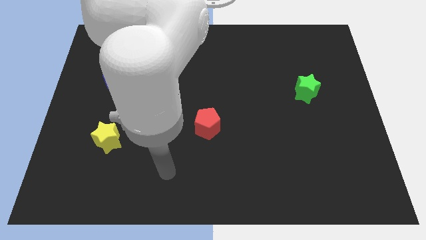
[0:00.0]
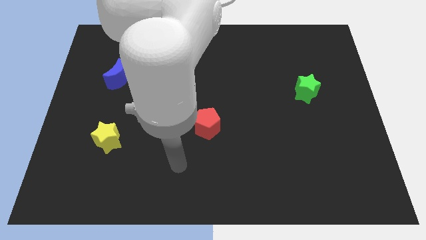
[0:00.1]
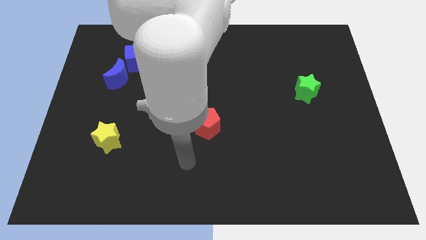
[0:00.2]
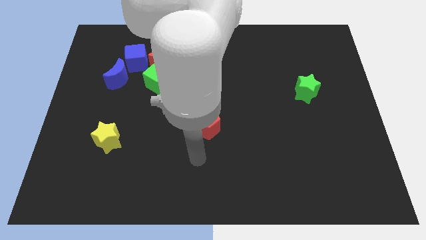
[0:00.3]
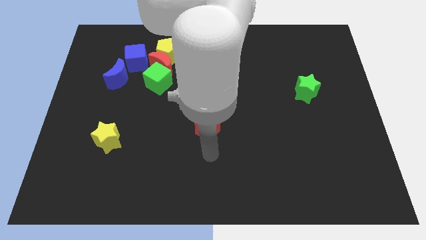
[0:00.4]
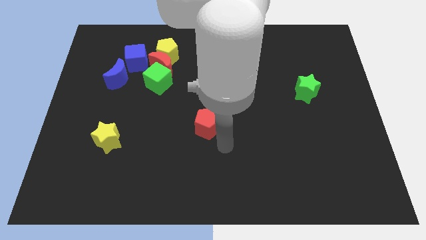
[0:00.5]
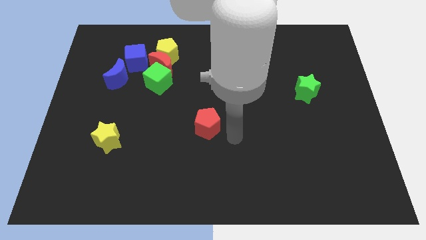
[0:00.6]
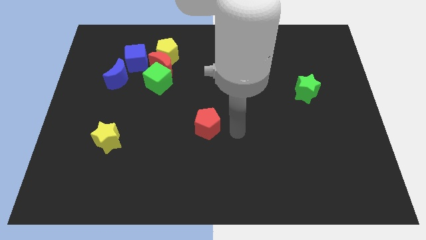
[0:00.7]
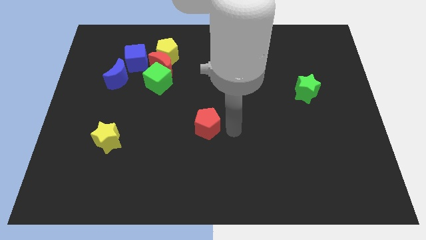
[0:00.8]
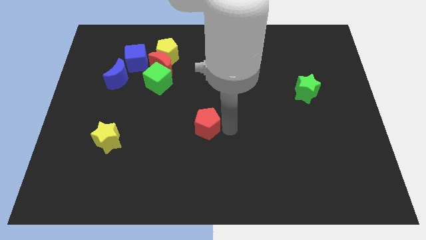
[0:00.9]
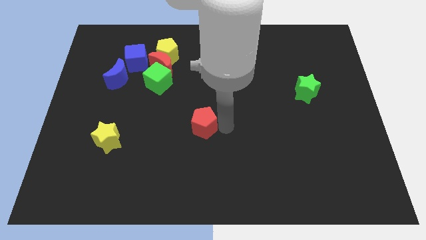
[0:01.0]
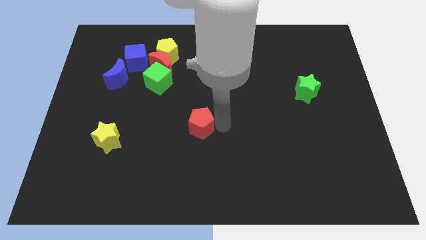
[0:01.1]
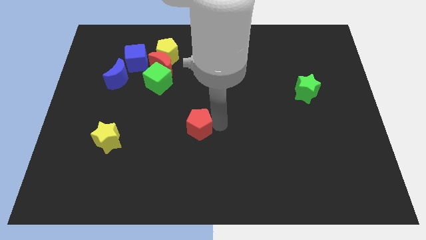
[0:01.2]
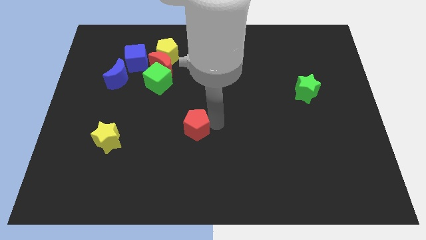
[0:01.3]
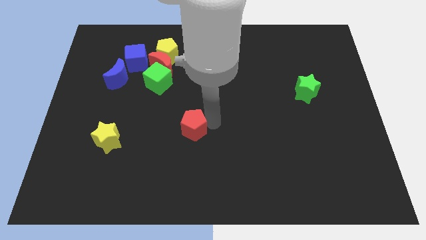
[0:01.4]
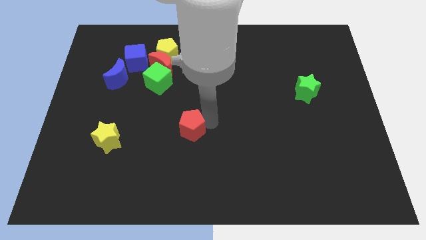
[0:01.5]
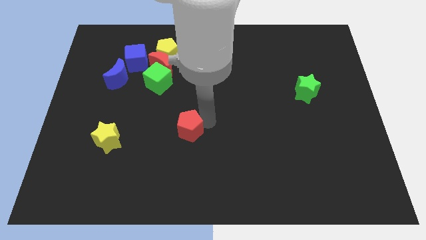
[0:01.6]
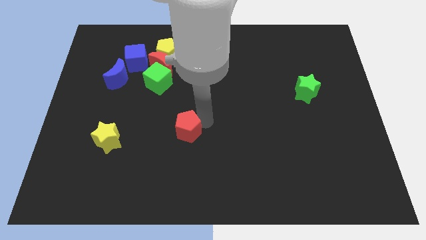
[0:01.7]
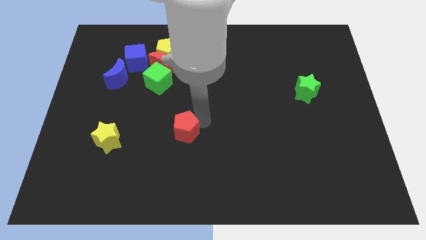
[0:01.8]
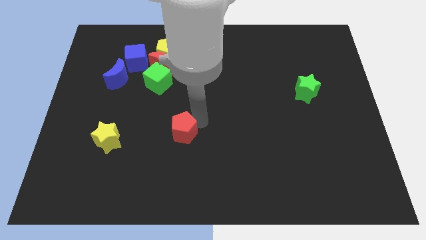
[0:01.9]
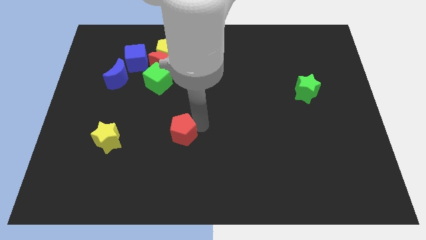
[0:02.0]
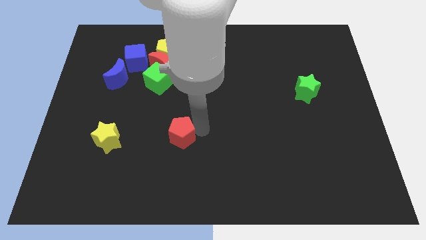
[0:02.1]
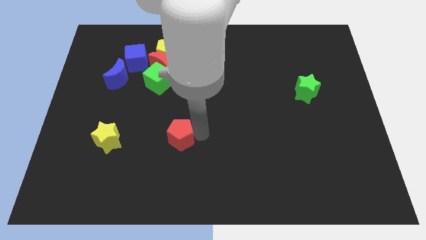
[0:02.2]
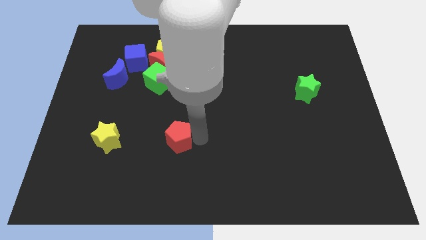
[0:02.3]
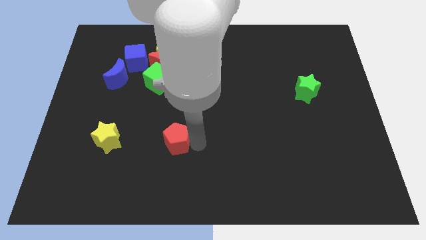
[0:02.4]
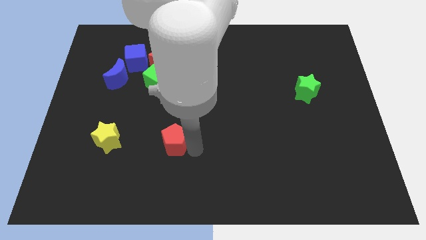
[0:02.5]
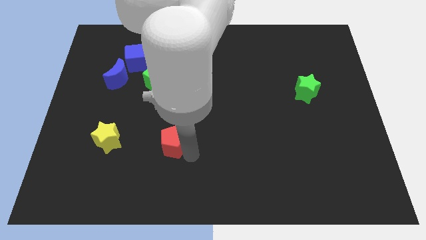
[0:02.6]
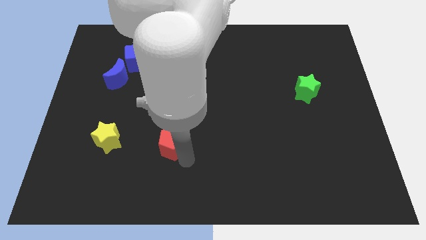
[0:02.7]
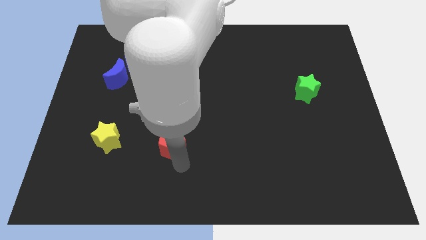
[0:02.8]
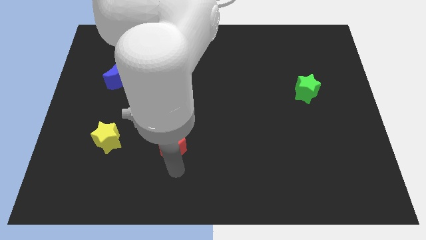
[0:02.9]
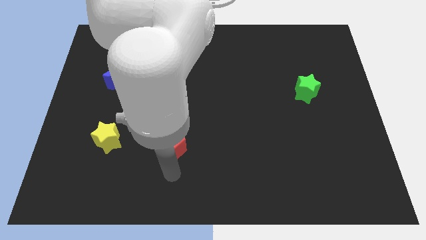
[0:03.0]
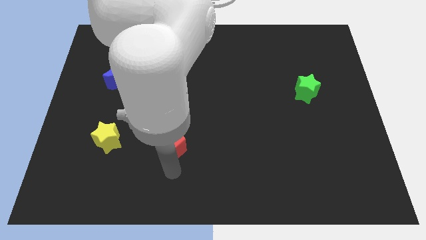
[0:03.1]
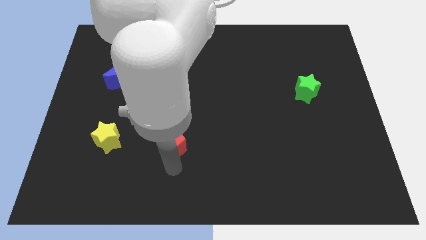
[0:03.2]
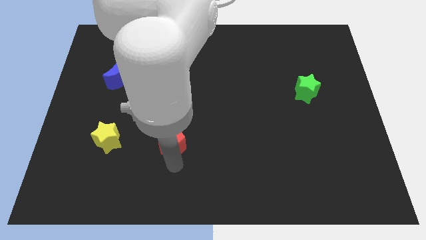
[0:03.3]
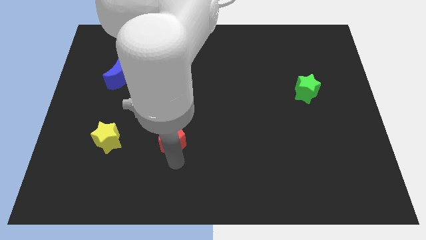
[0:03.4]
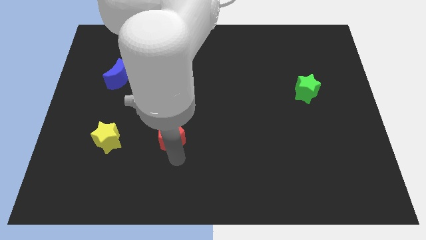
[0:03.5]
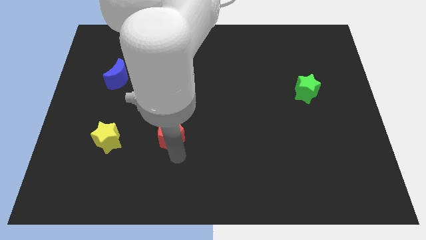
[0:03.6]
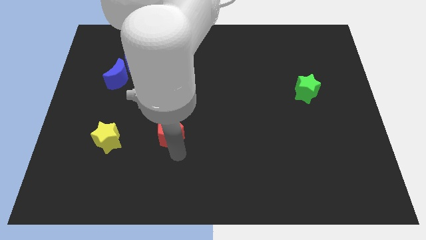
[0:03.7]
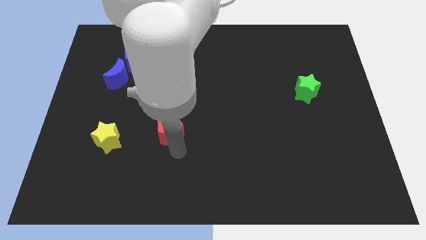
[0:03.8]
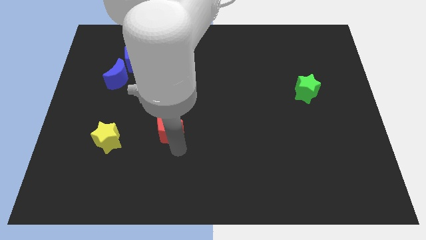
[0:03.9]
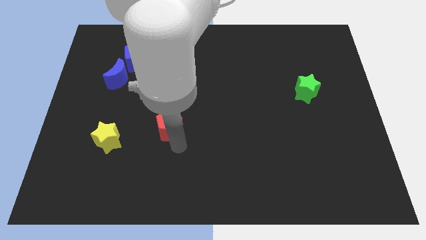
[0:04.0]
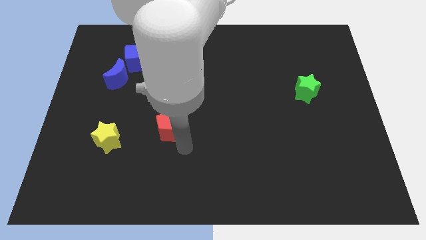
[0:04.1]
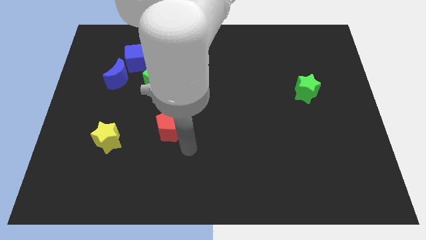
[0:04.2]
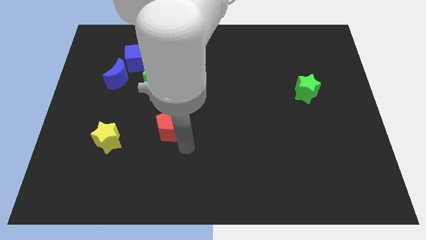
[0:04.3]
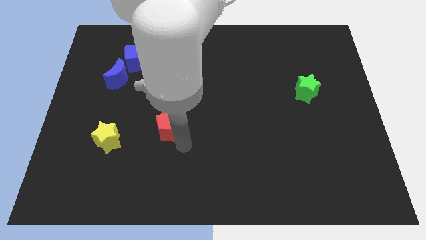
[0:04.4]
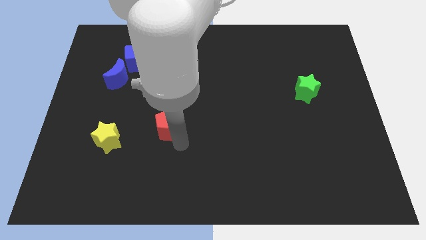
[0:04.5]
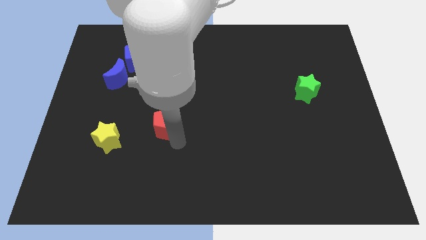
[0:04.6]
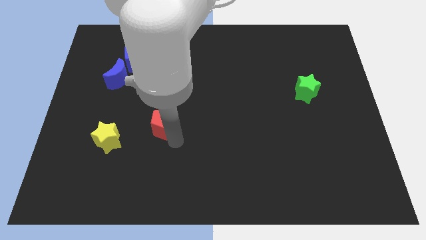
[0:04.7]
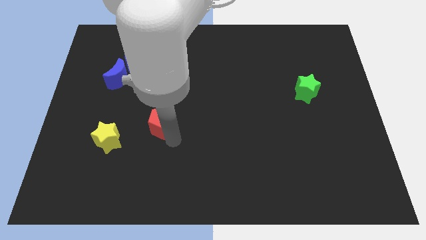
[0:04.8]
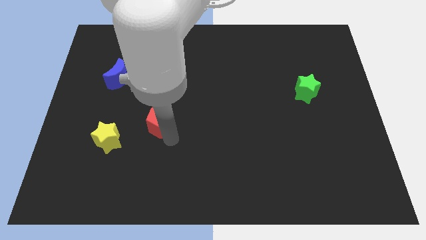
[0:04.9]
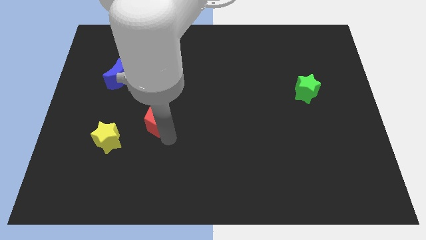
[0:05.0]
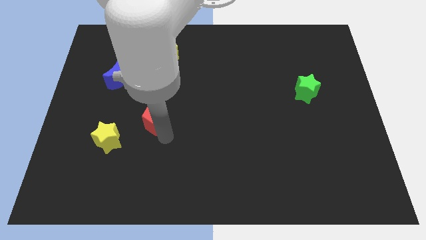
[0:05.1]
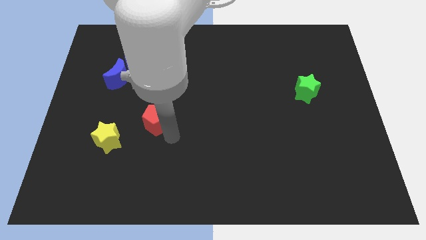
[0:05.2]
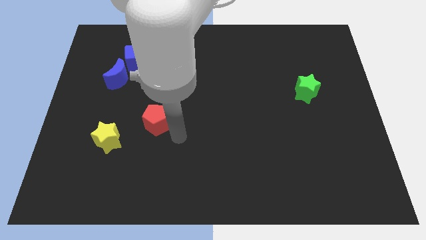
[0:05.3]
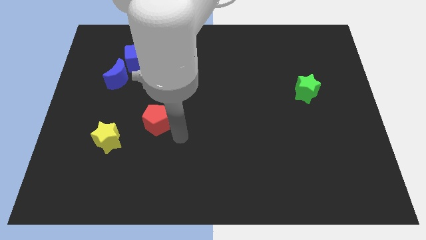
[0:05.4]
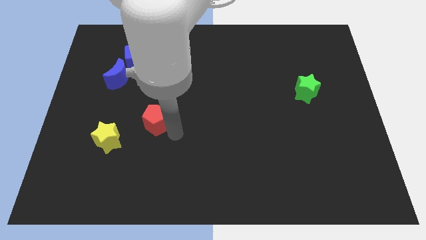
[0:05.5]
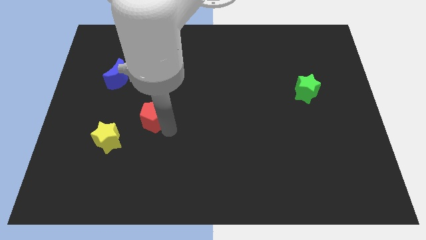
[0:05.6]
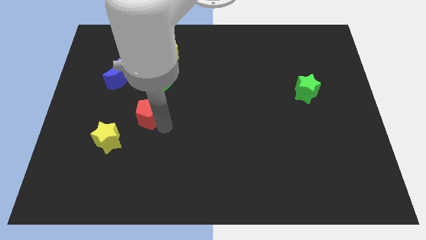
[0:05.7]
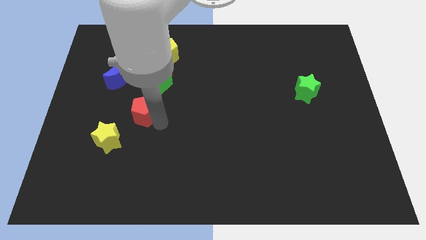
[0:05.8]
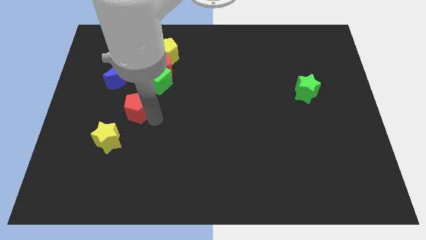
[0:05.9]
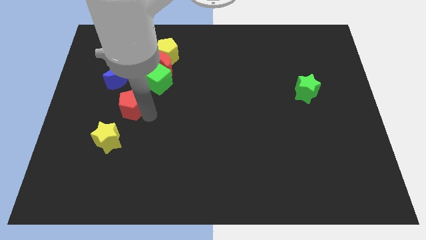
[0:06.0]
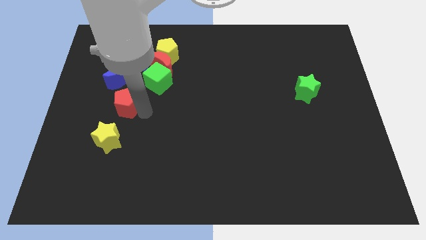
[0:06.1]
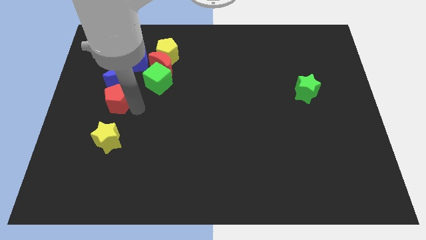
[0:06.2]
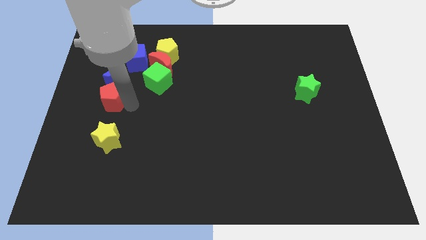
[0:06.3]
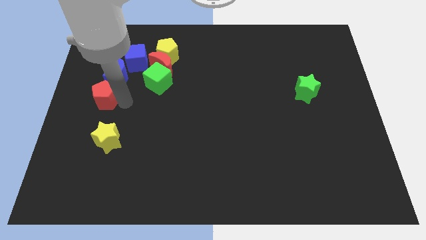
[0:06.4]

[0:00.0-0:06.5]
slide the red pentagon to the left side

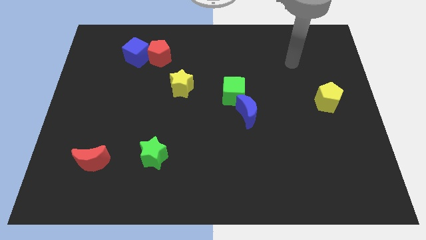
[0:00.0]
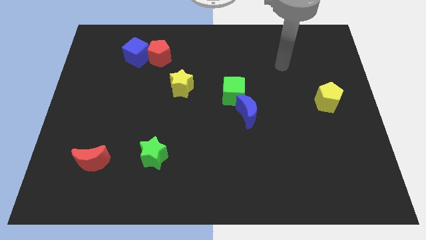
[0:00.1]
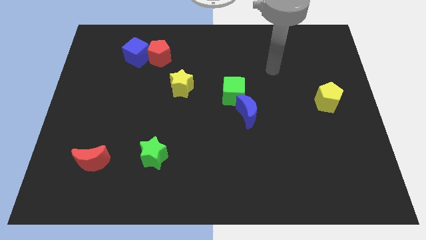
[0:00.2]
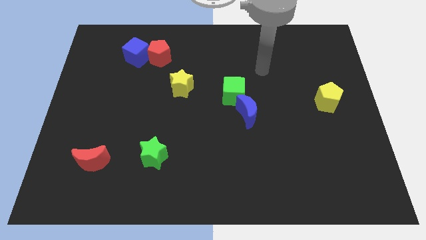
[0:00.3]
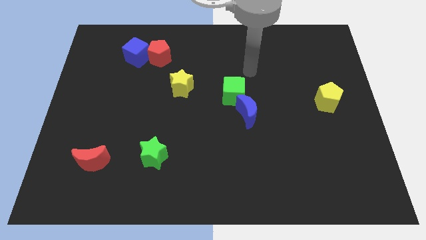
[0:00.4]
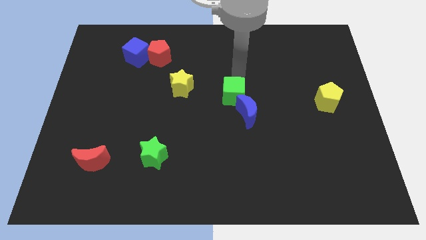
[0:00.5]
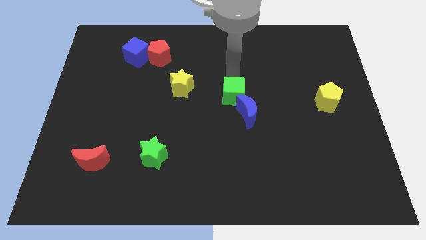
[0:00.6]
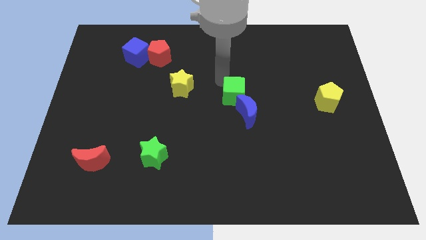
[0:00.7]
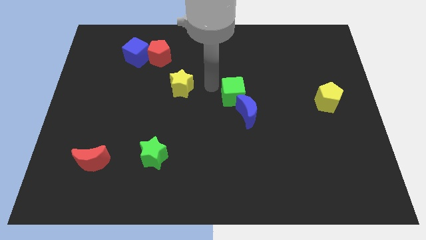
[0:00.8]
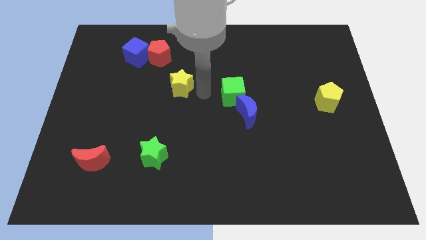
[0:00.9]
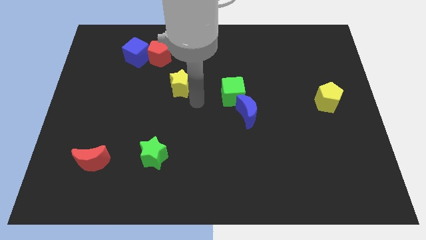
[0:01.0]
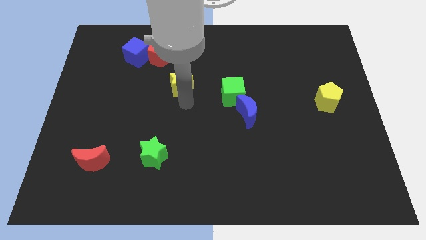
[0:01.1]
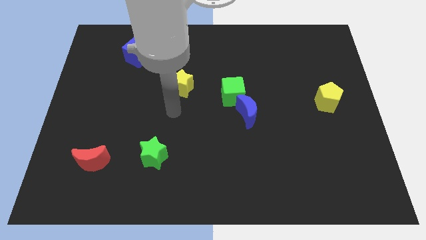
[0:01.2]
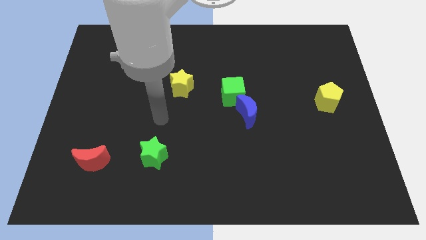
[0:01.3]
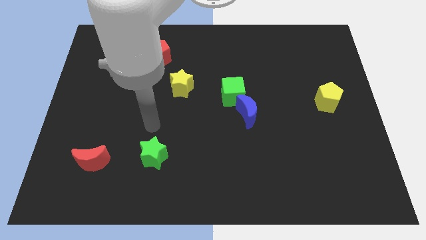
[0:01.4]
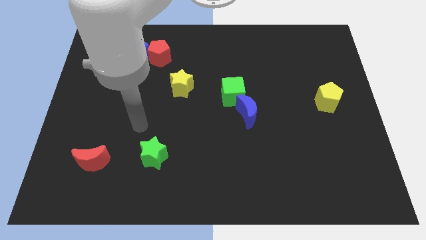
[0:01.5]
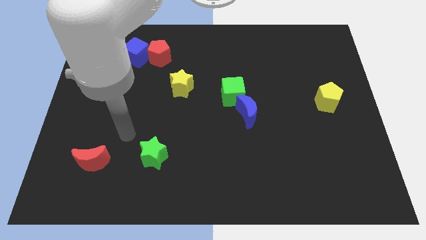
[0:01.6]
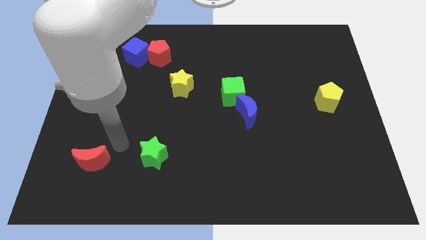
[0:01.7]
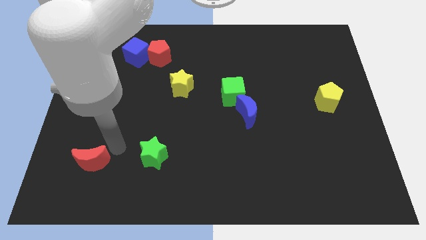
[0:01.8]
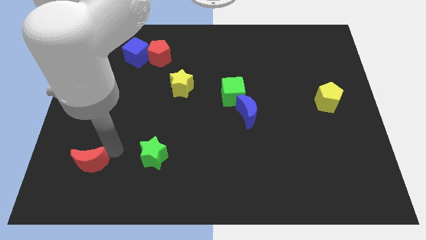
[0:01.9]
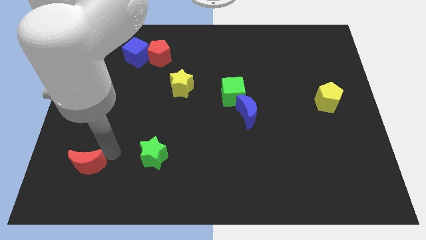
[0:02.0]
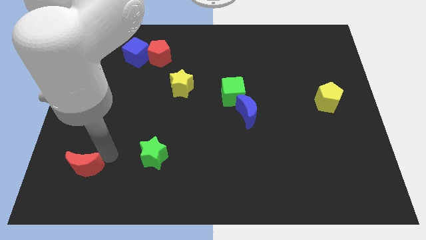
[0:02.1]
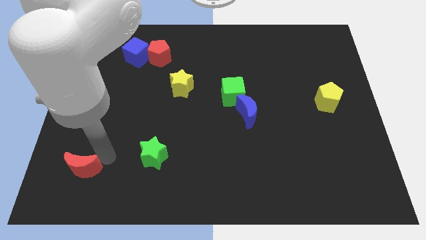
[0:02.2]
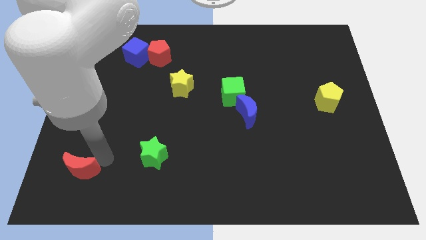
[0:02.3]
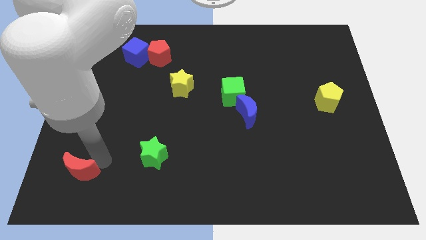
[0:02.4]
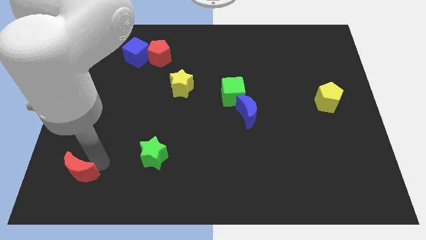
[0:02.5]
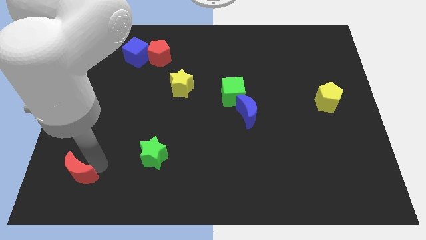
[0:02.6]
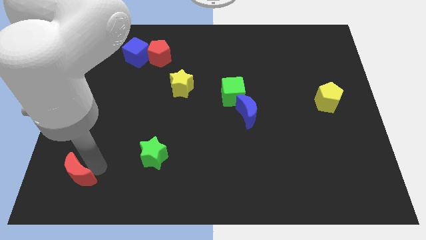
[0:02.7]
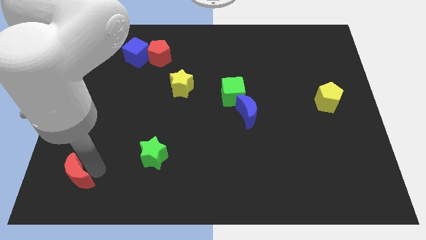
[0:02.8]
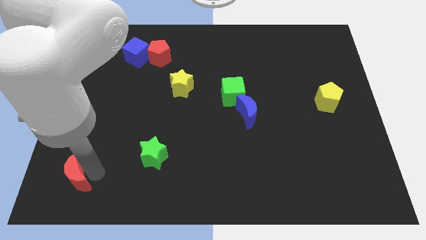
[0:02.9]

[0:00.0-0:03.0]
slide the red moon to the bottom left of the board
